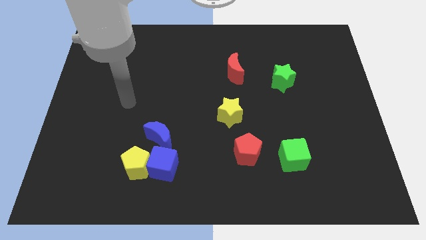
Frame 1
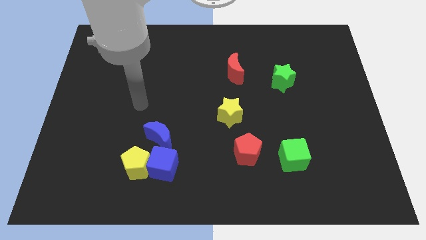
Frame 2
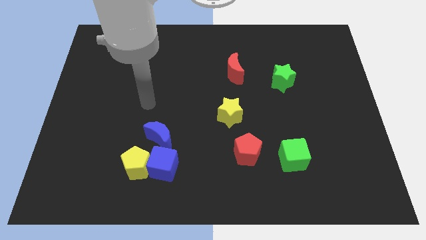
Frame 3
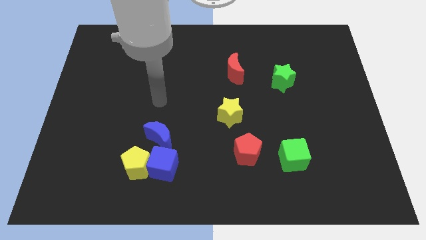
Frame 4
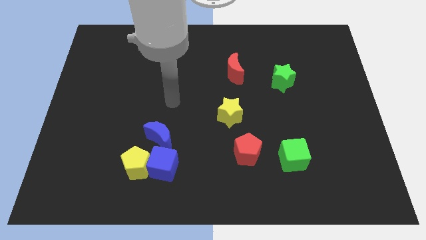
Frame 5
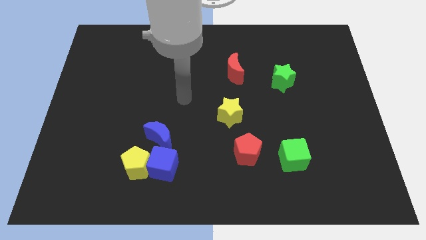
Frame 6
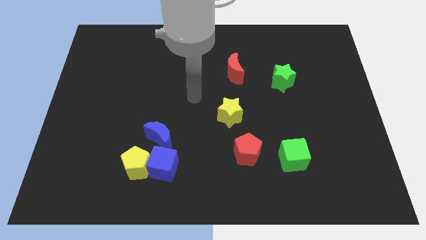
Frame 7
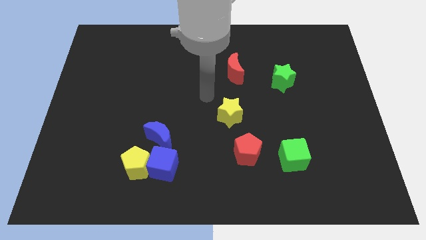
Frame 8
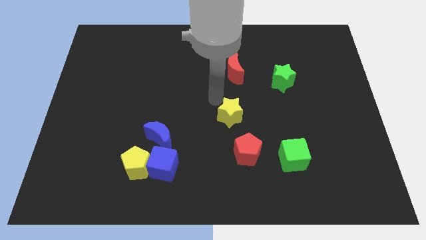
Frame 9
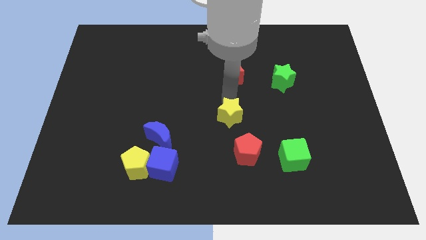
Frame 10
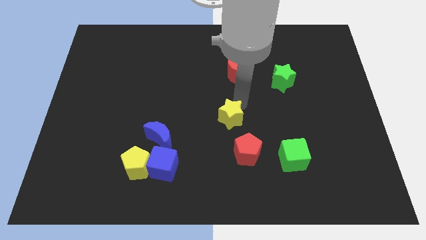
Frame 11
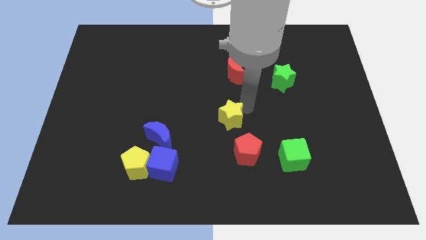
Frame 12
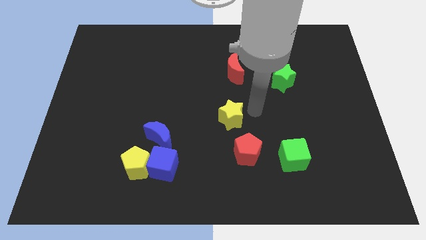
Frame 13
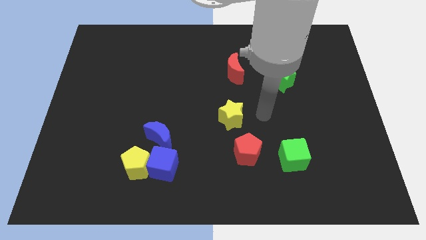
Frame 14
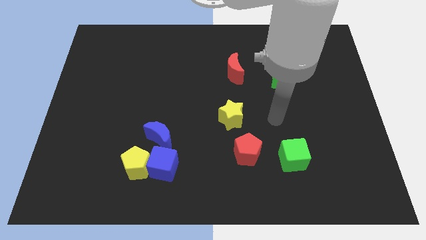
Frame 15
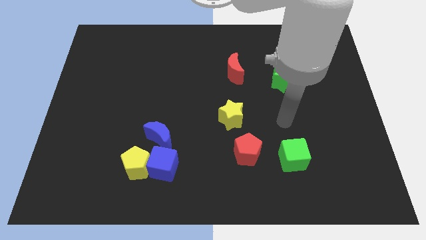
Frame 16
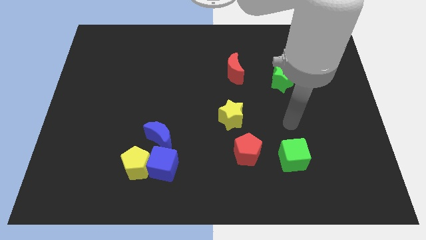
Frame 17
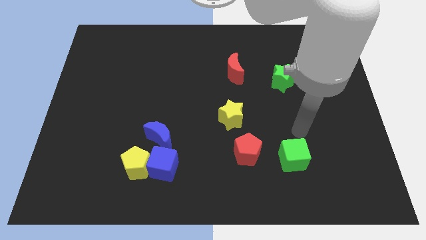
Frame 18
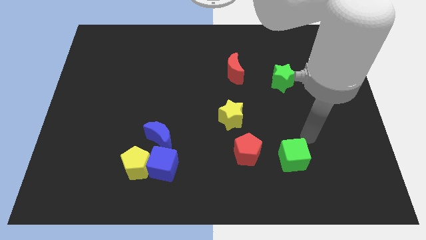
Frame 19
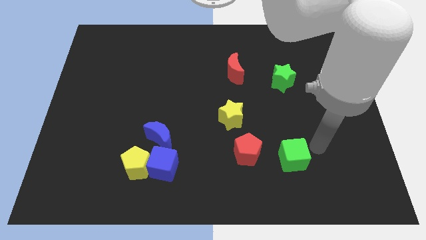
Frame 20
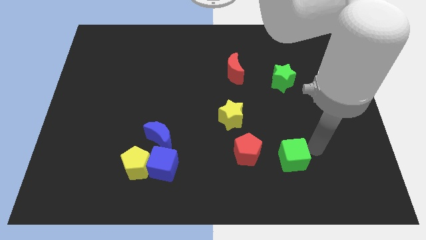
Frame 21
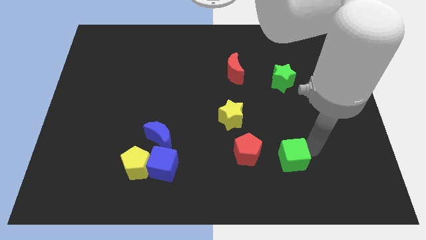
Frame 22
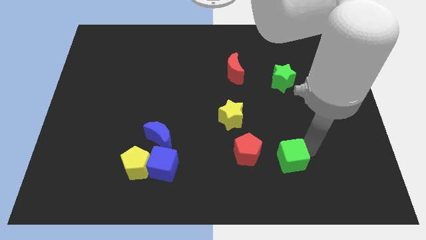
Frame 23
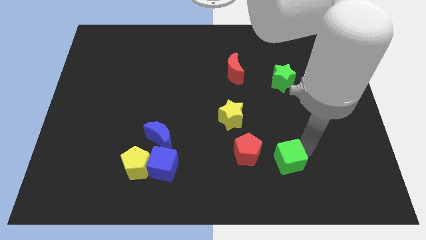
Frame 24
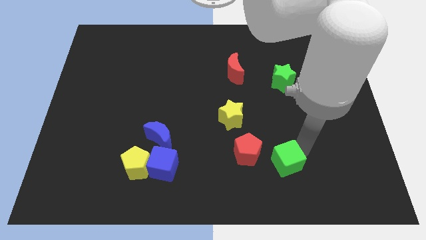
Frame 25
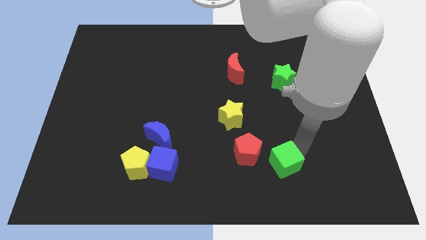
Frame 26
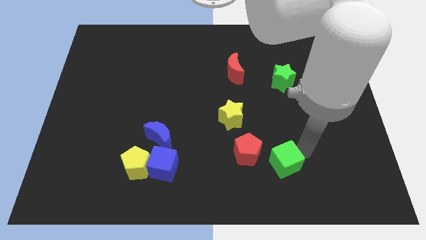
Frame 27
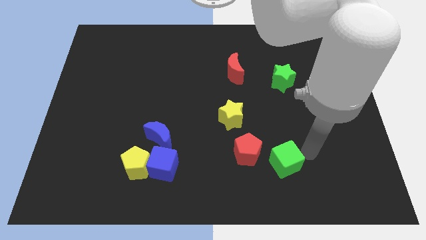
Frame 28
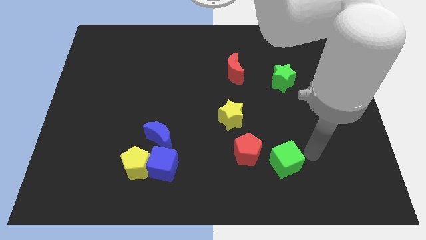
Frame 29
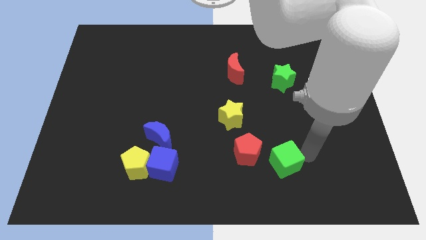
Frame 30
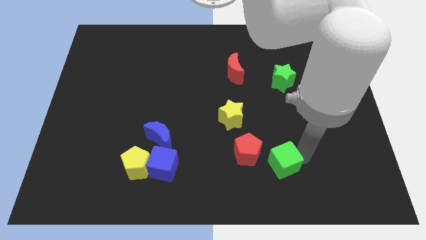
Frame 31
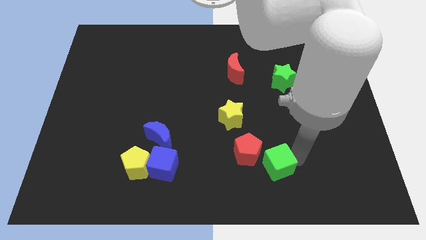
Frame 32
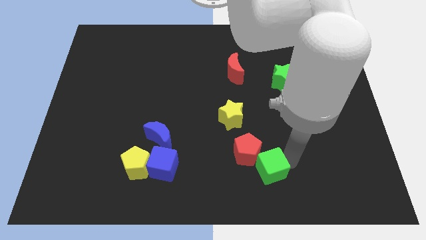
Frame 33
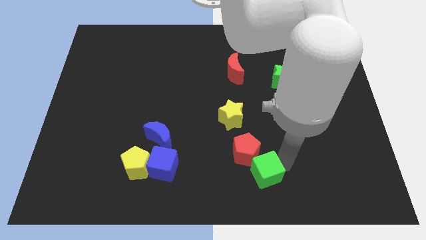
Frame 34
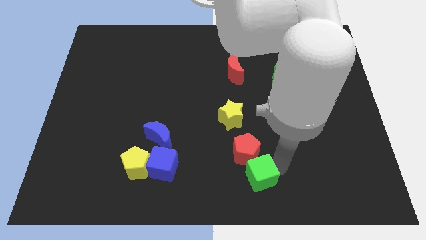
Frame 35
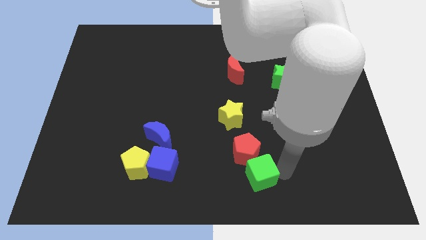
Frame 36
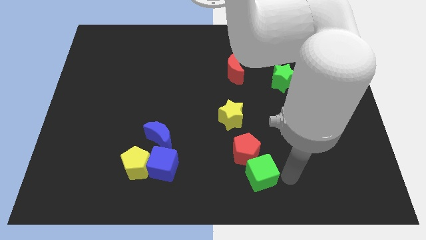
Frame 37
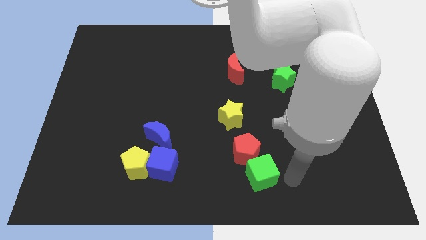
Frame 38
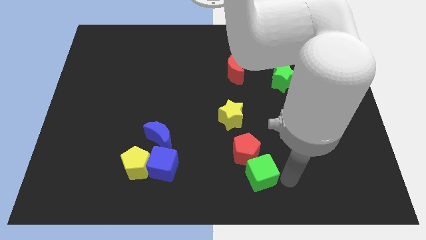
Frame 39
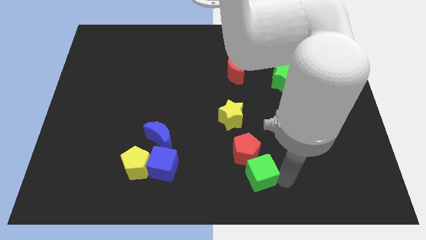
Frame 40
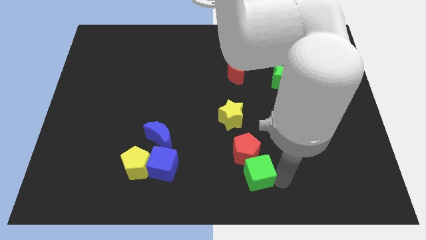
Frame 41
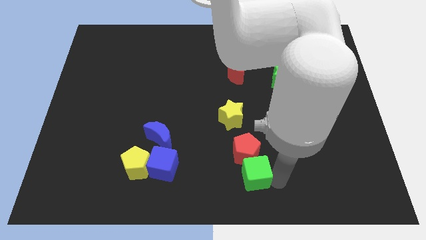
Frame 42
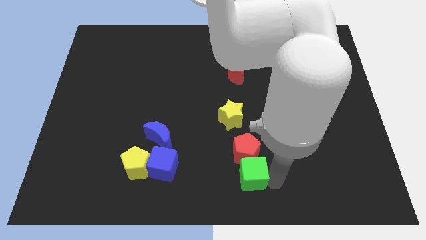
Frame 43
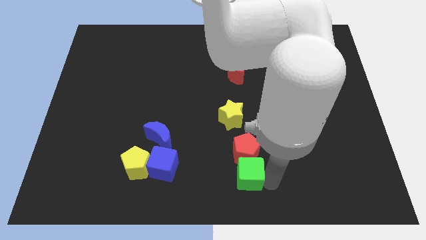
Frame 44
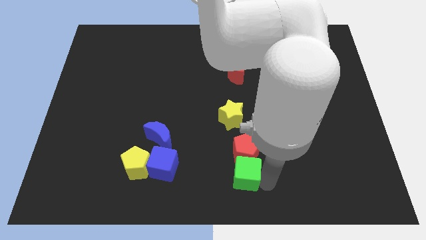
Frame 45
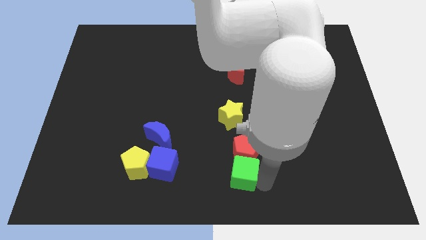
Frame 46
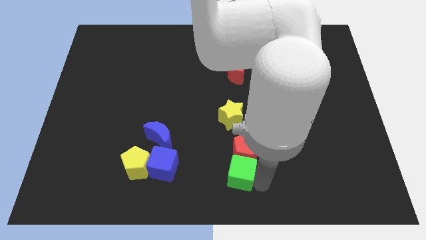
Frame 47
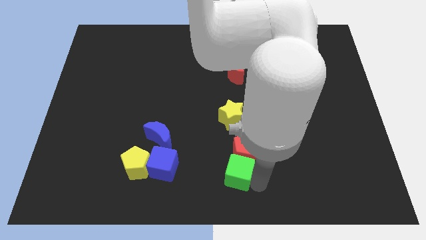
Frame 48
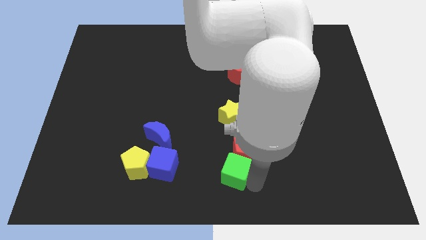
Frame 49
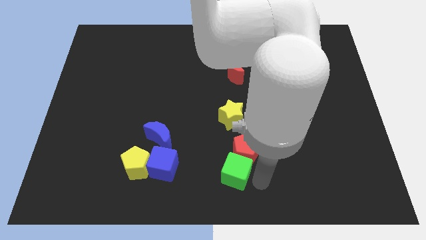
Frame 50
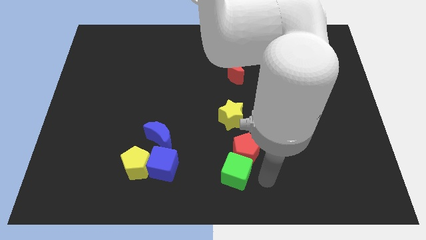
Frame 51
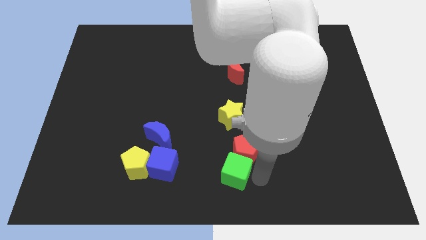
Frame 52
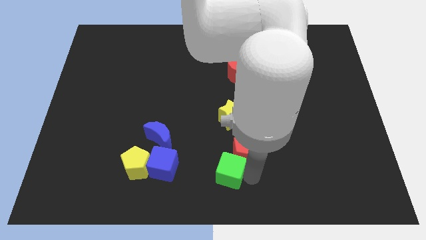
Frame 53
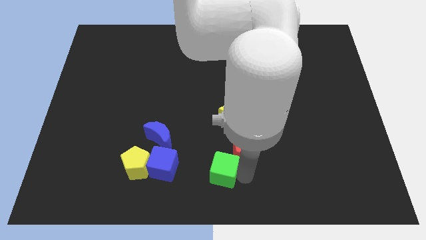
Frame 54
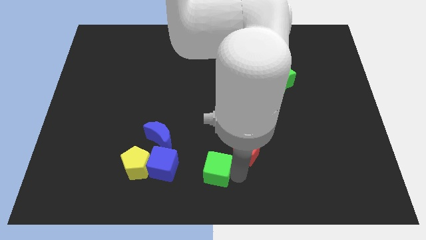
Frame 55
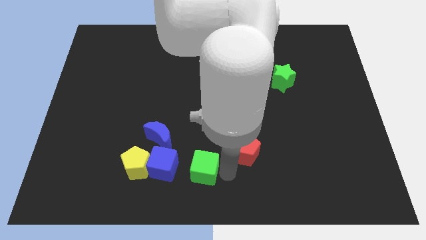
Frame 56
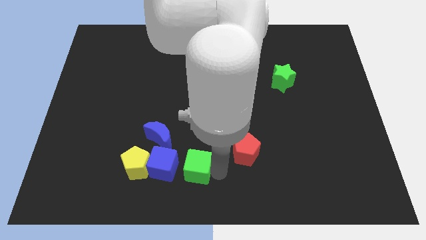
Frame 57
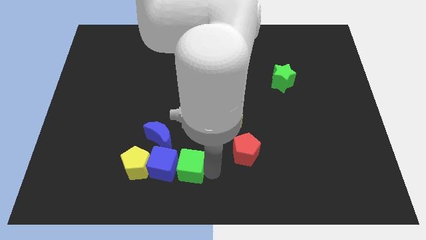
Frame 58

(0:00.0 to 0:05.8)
slide the green cube to the blue cube

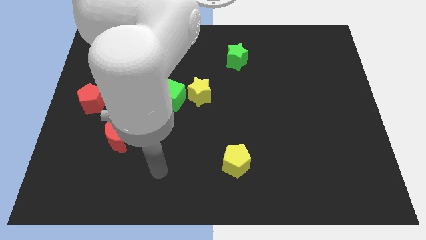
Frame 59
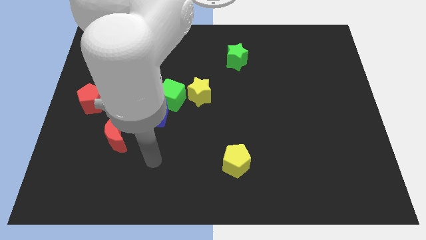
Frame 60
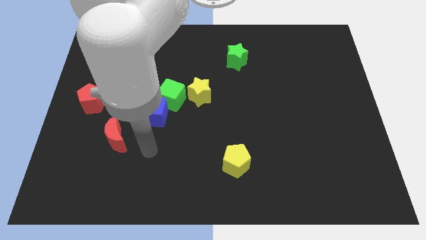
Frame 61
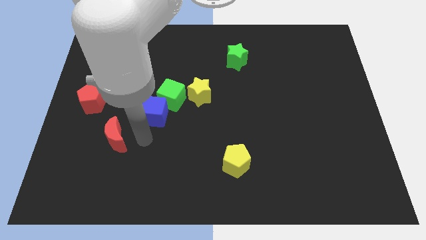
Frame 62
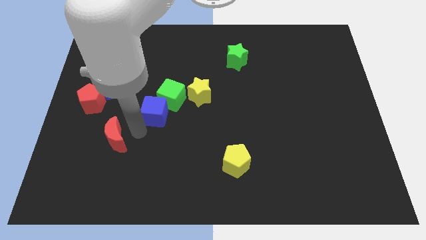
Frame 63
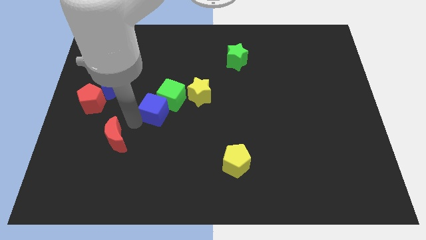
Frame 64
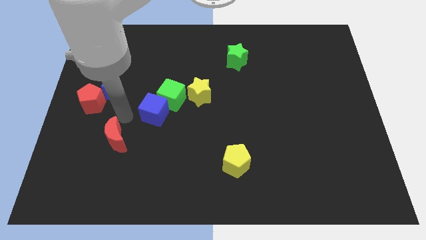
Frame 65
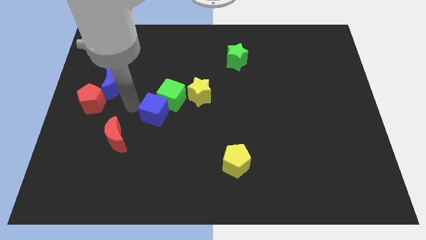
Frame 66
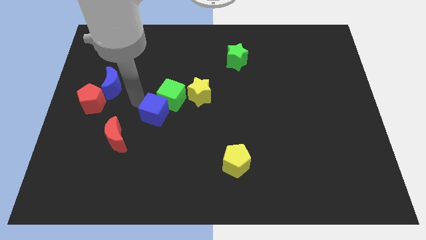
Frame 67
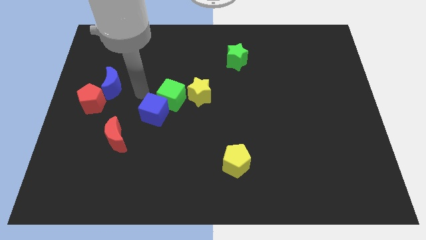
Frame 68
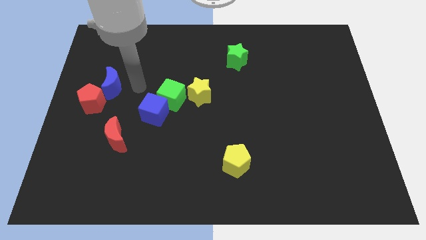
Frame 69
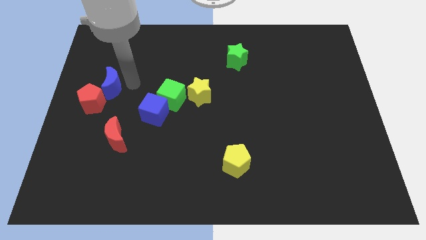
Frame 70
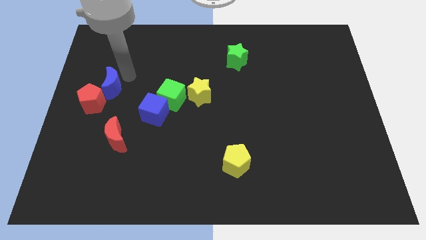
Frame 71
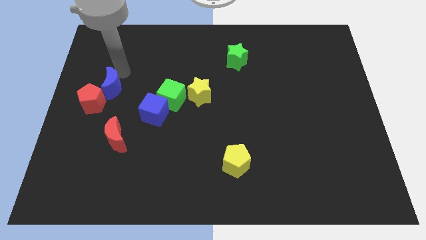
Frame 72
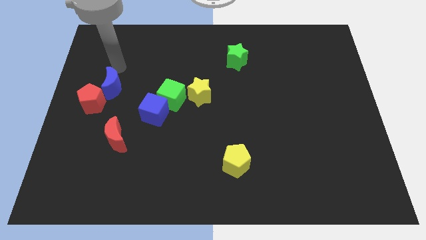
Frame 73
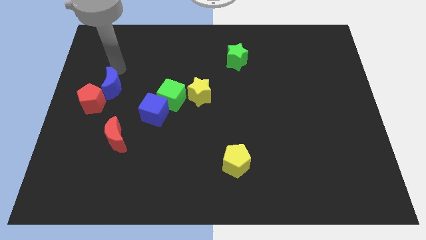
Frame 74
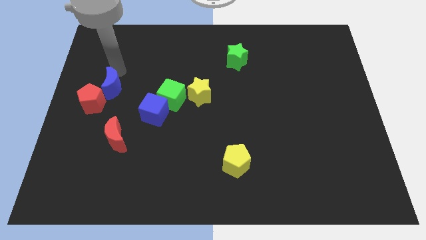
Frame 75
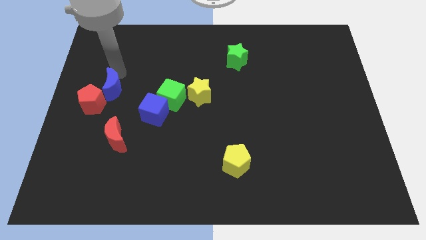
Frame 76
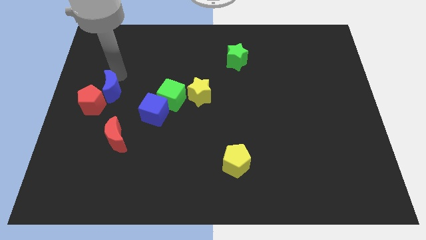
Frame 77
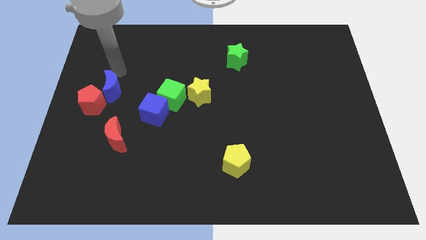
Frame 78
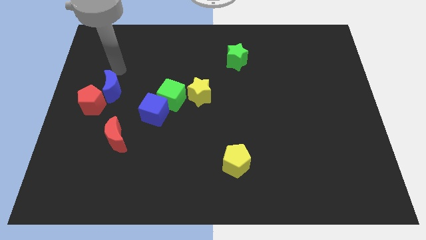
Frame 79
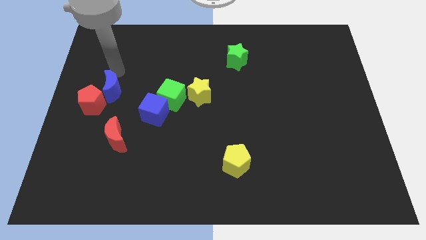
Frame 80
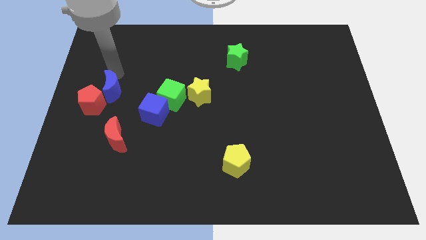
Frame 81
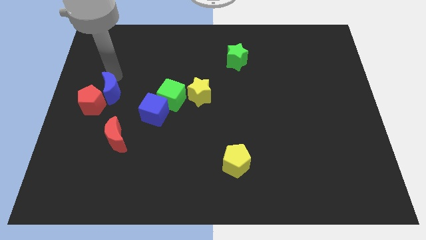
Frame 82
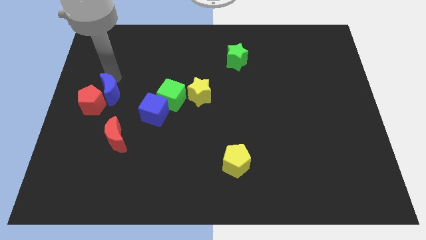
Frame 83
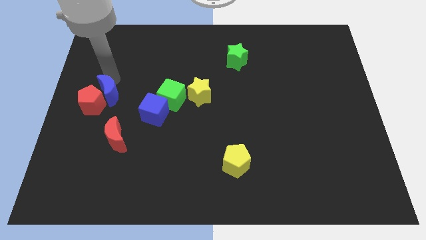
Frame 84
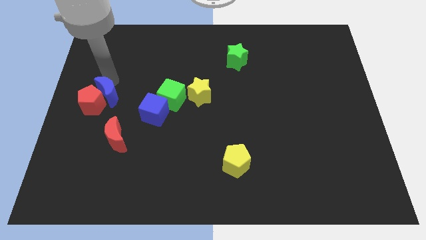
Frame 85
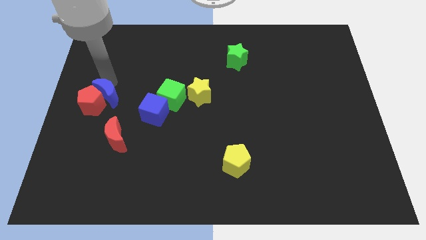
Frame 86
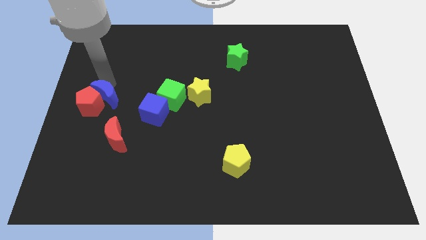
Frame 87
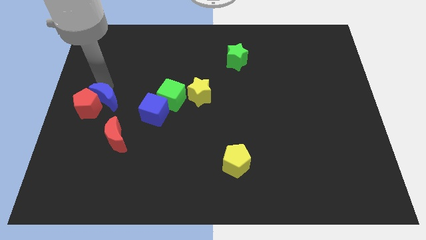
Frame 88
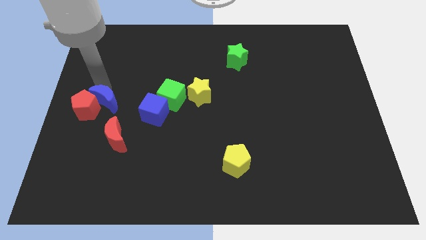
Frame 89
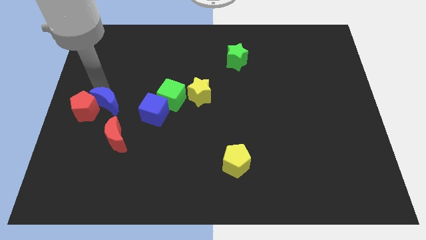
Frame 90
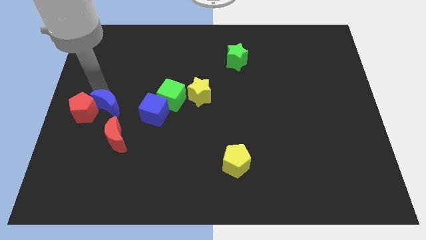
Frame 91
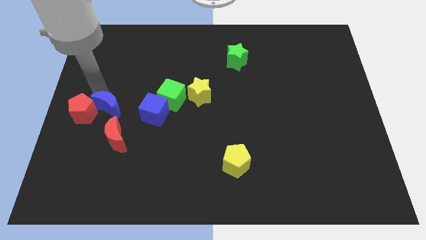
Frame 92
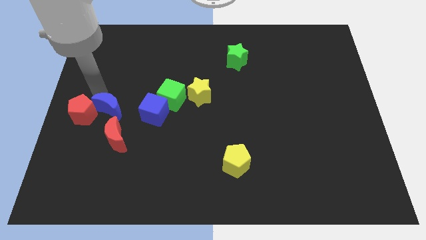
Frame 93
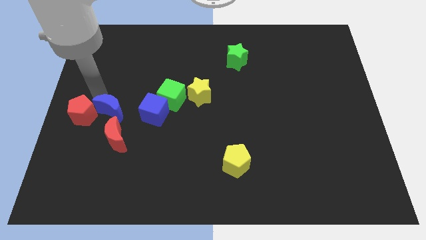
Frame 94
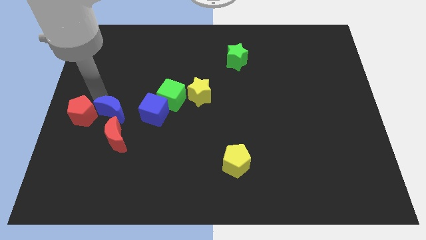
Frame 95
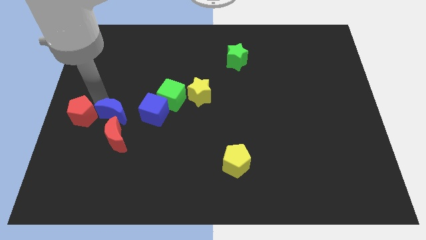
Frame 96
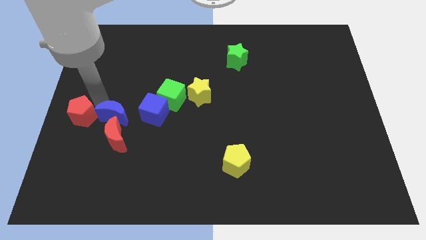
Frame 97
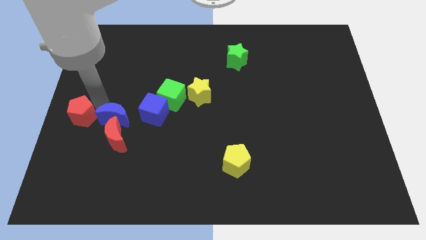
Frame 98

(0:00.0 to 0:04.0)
slide the blue moon close to the red moon
